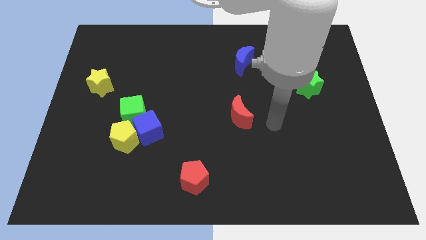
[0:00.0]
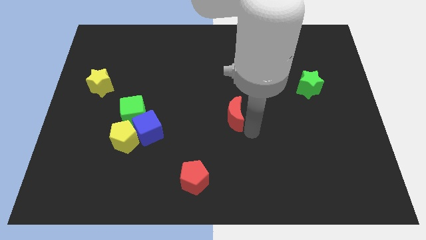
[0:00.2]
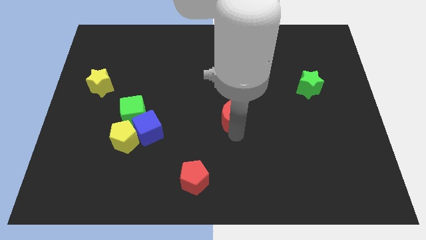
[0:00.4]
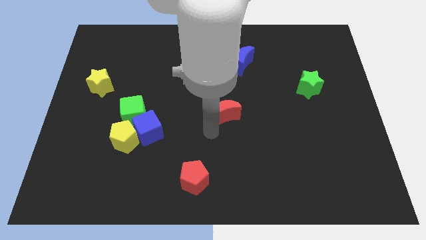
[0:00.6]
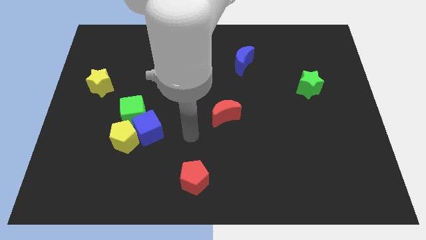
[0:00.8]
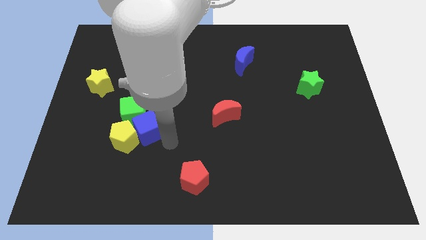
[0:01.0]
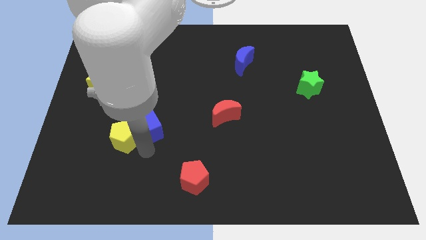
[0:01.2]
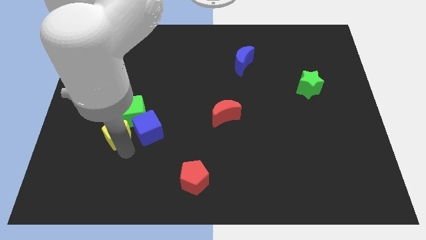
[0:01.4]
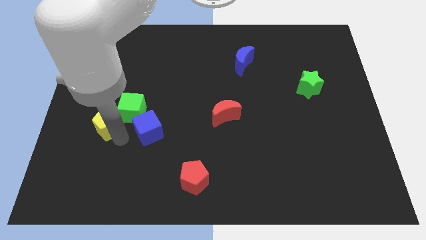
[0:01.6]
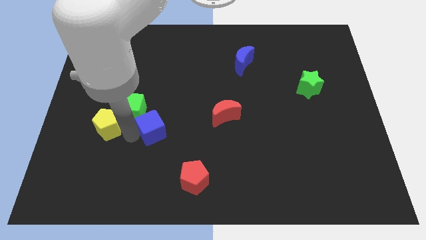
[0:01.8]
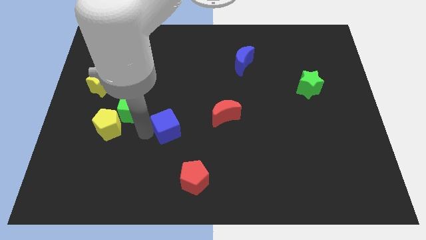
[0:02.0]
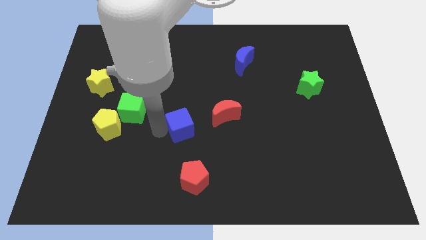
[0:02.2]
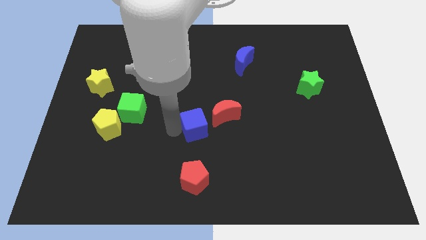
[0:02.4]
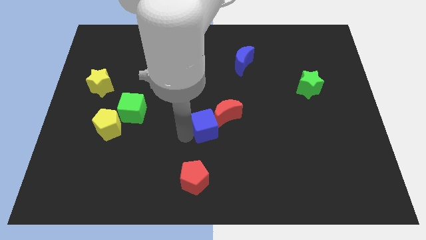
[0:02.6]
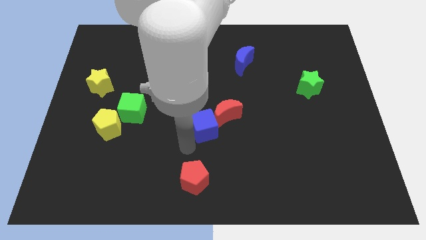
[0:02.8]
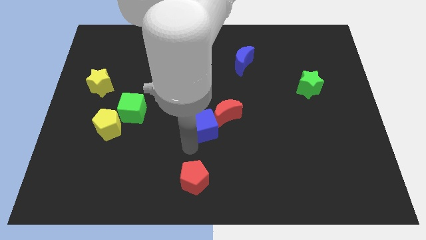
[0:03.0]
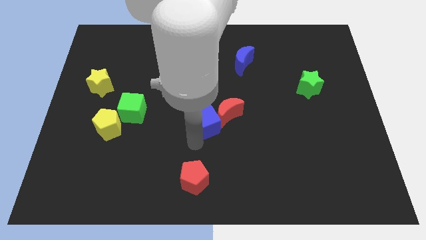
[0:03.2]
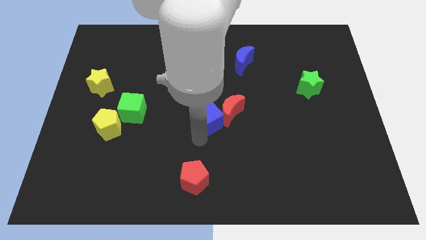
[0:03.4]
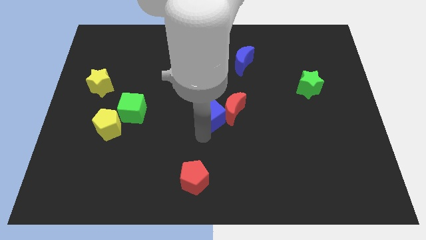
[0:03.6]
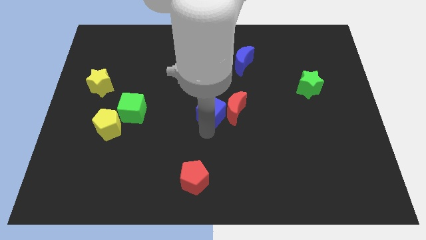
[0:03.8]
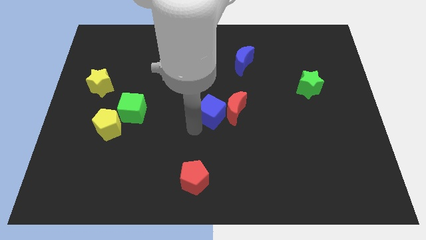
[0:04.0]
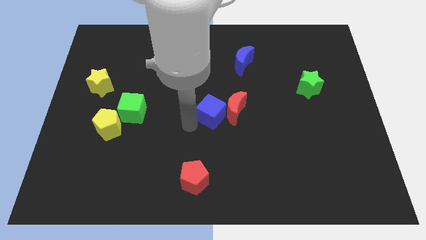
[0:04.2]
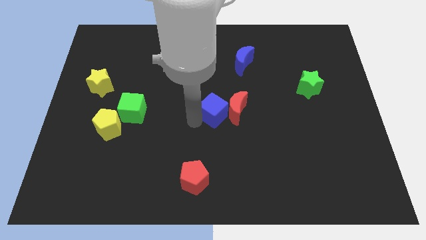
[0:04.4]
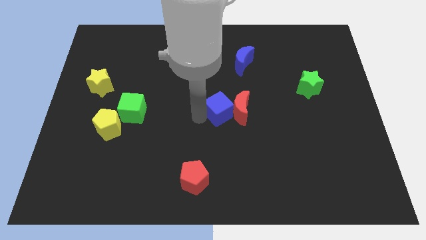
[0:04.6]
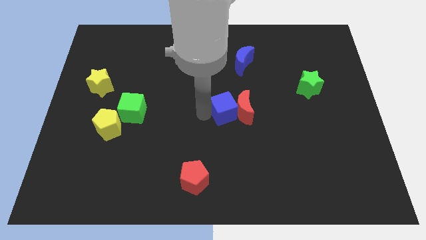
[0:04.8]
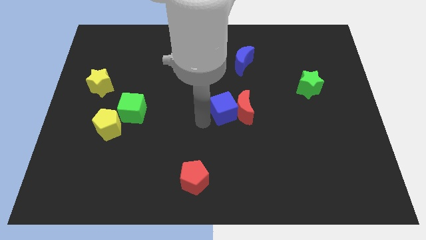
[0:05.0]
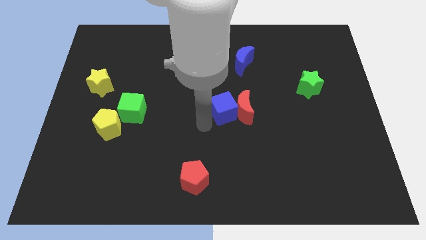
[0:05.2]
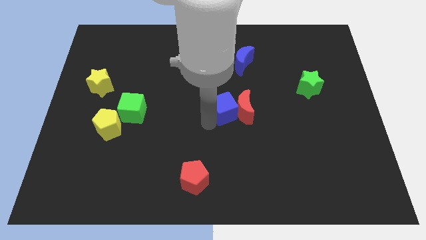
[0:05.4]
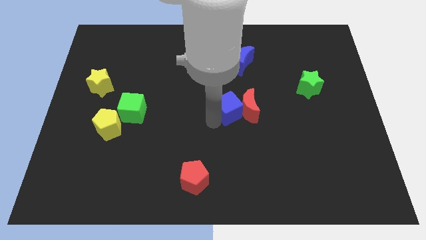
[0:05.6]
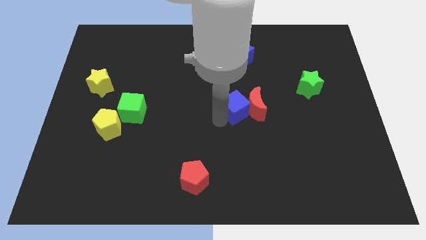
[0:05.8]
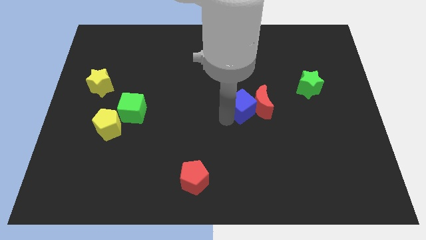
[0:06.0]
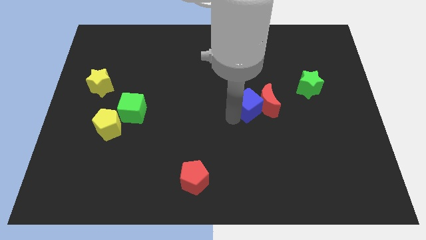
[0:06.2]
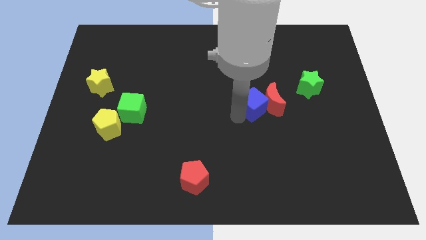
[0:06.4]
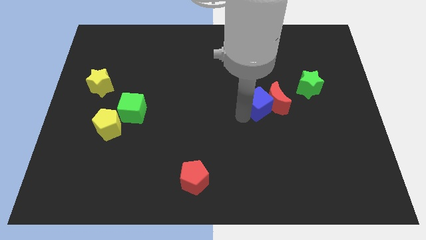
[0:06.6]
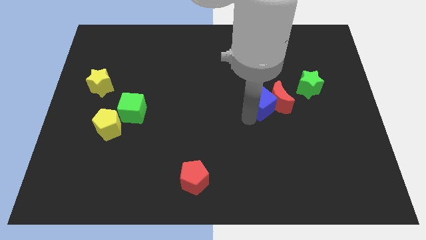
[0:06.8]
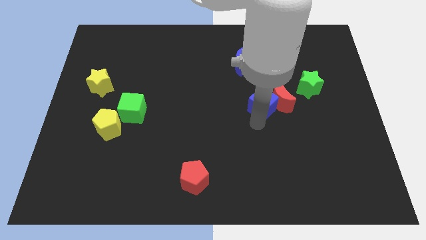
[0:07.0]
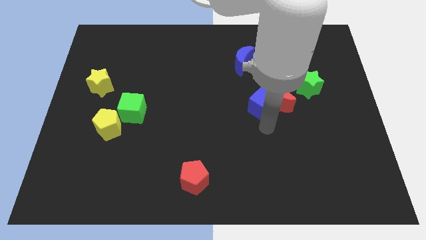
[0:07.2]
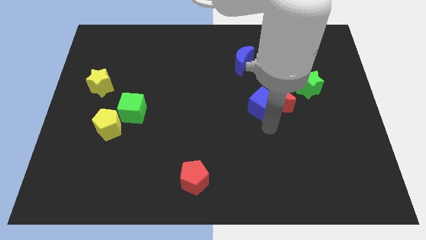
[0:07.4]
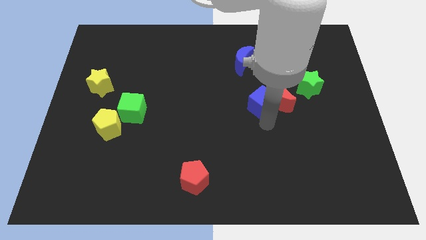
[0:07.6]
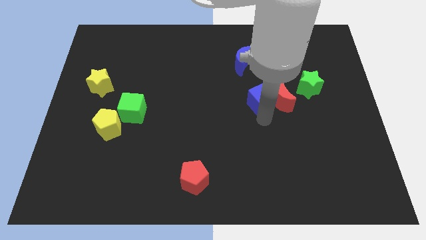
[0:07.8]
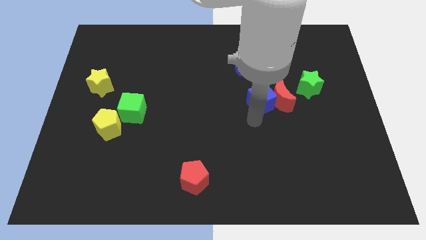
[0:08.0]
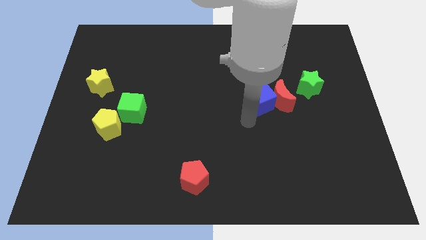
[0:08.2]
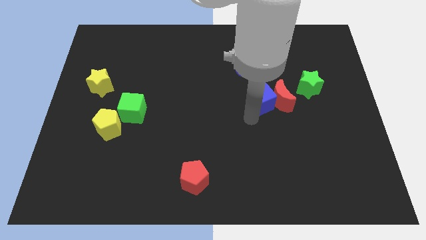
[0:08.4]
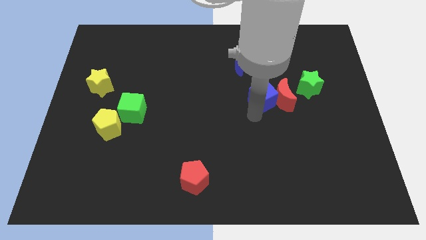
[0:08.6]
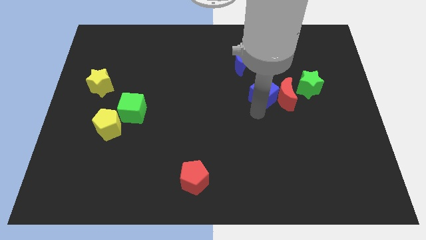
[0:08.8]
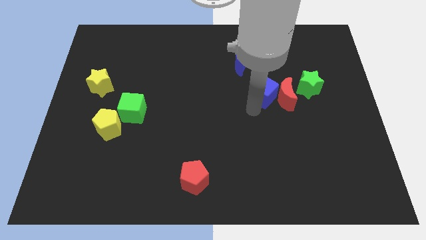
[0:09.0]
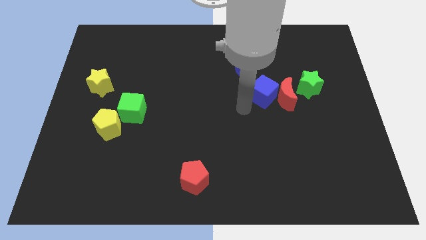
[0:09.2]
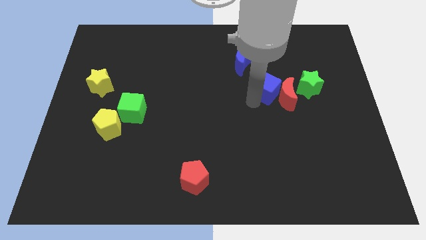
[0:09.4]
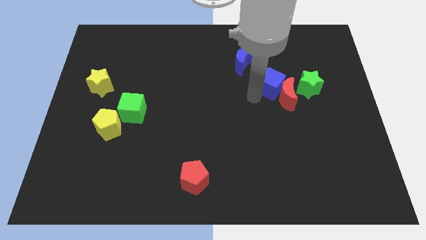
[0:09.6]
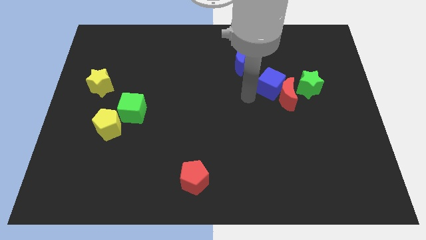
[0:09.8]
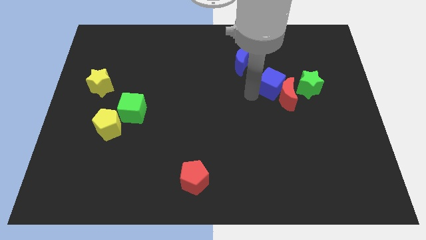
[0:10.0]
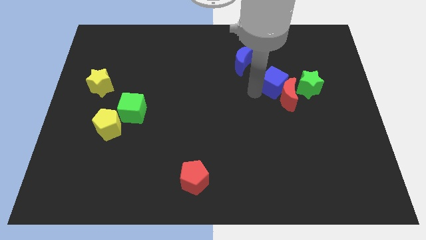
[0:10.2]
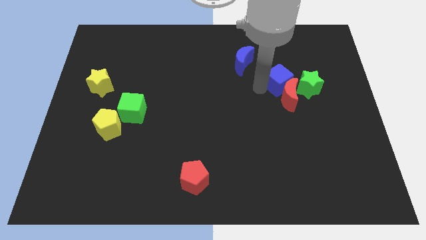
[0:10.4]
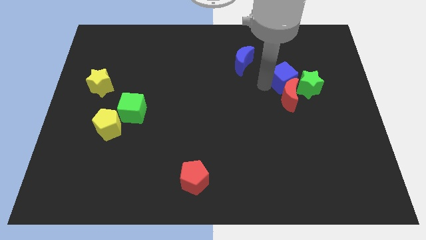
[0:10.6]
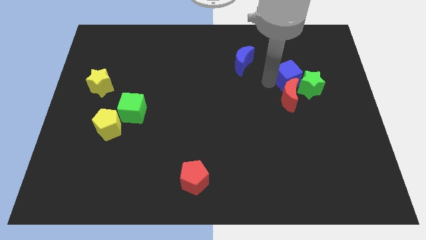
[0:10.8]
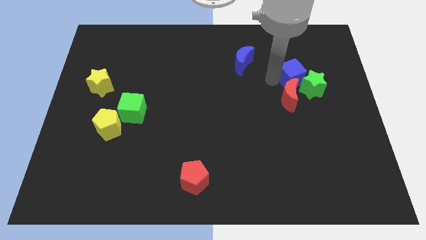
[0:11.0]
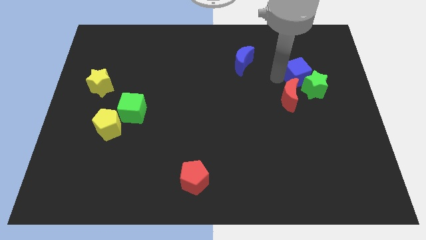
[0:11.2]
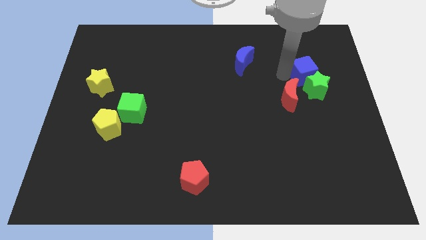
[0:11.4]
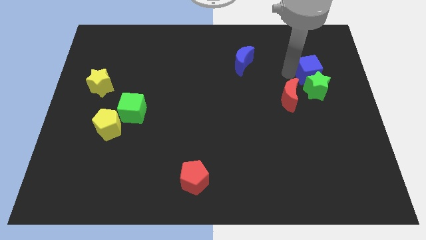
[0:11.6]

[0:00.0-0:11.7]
move the blue cube to the top right of the green star

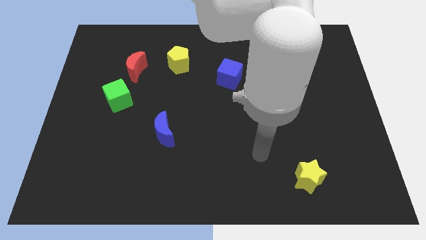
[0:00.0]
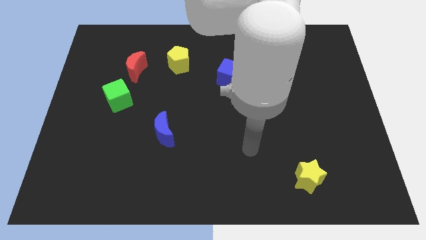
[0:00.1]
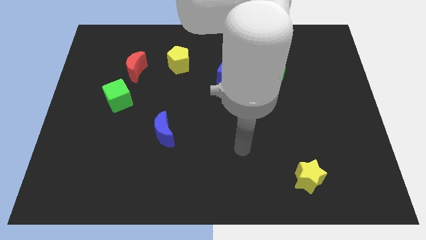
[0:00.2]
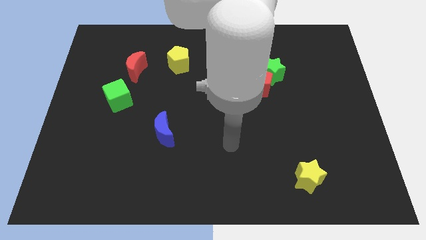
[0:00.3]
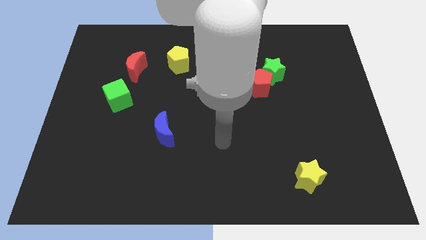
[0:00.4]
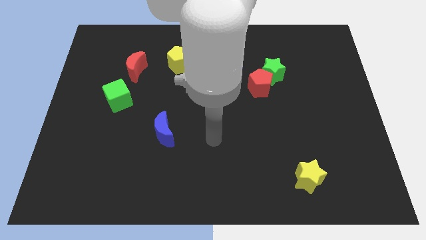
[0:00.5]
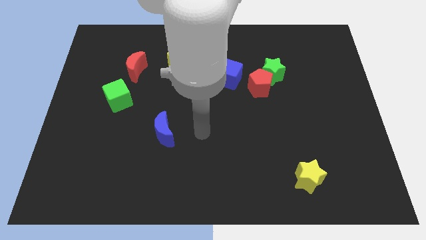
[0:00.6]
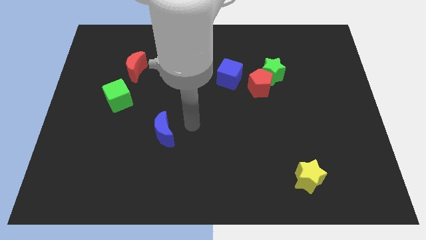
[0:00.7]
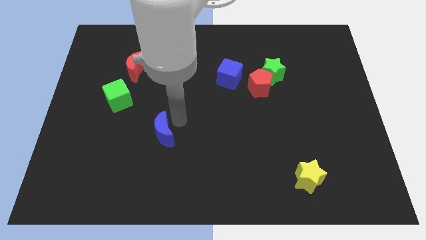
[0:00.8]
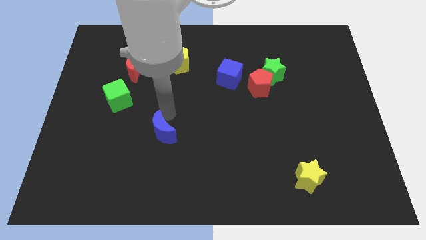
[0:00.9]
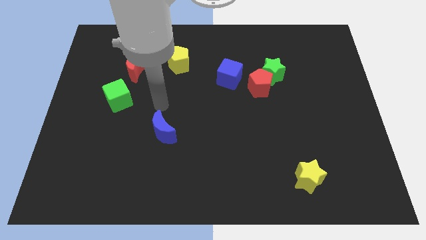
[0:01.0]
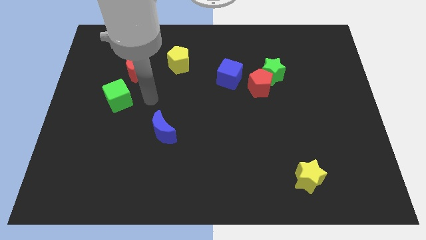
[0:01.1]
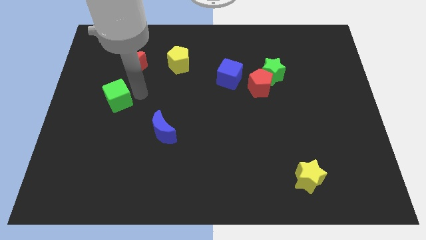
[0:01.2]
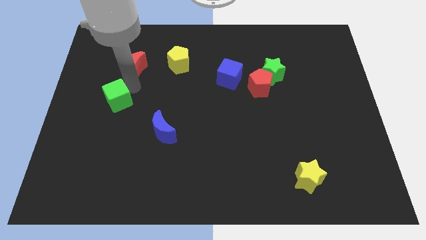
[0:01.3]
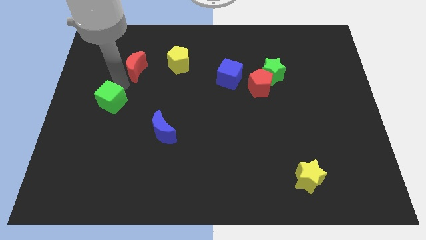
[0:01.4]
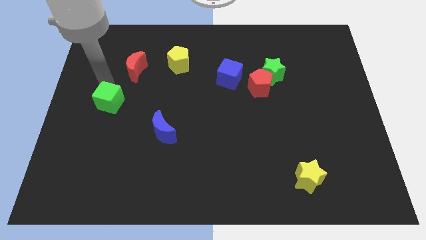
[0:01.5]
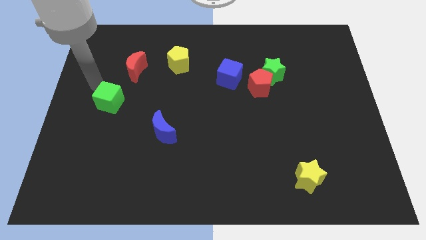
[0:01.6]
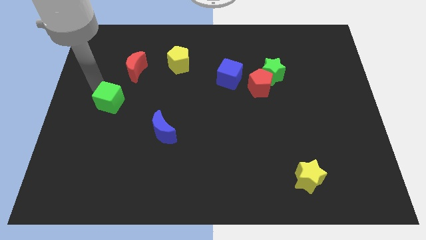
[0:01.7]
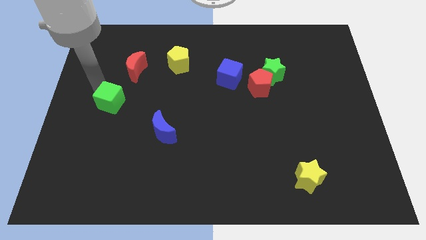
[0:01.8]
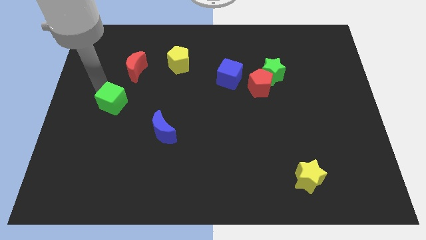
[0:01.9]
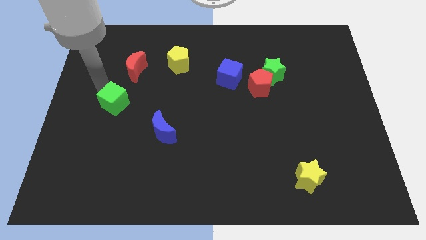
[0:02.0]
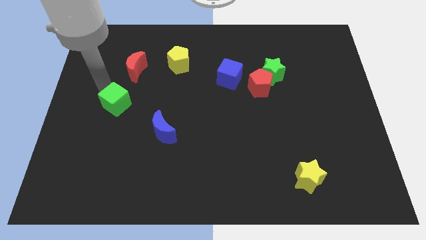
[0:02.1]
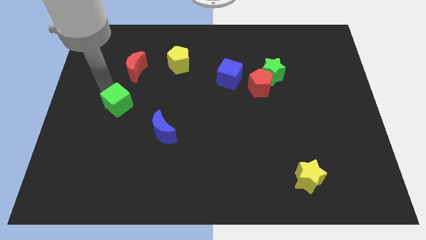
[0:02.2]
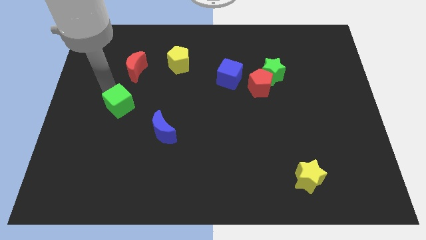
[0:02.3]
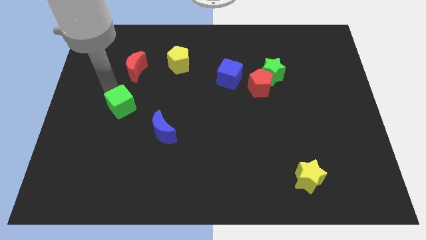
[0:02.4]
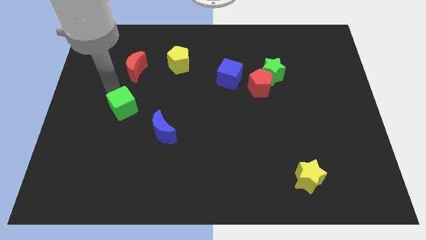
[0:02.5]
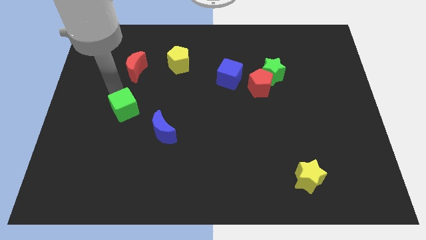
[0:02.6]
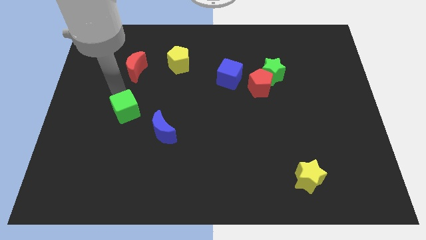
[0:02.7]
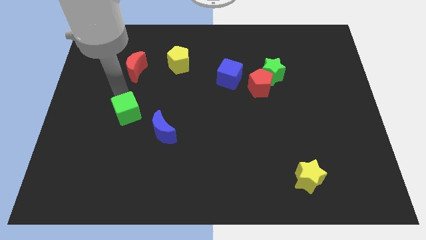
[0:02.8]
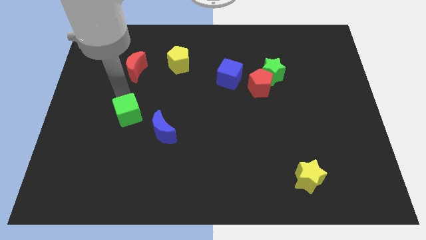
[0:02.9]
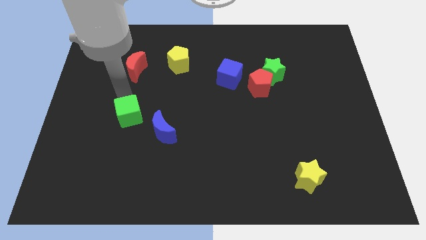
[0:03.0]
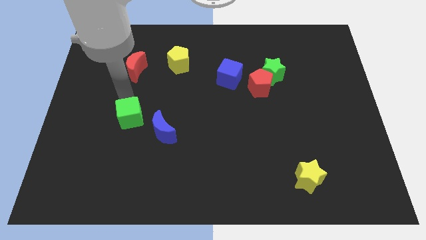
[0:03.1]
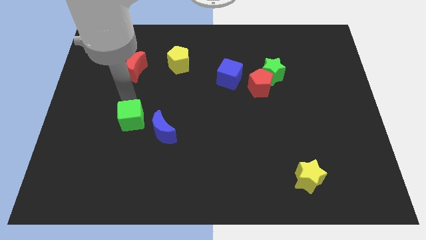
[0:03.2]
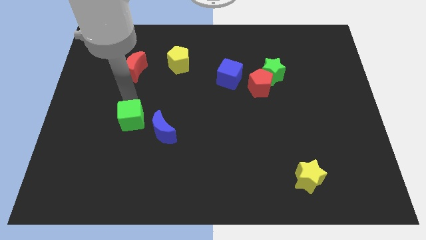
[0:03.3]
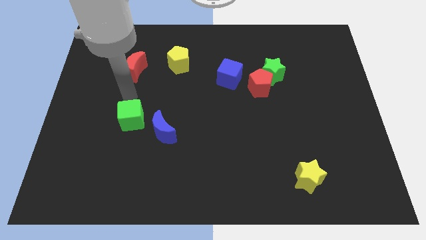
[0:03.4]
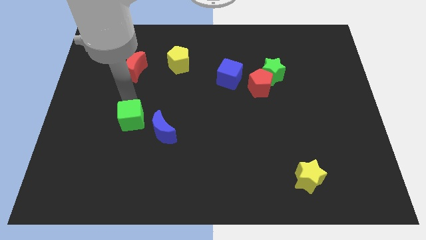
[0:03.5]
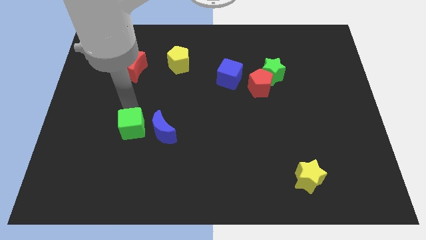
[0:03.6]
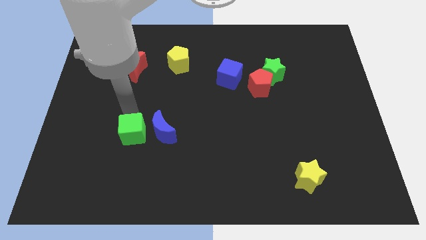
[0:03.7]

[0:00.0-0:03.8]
push the green cube diagonally down and to the left of the blue moon
